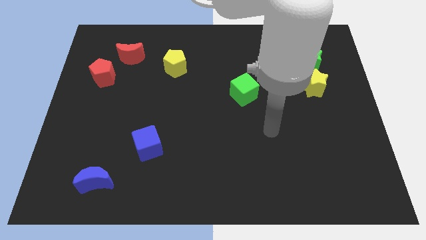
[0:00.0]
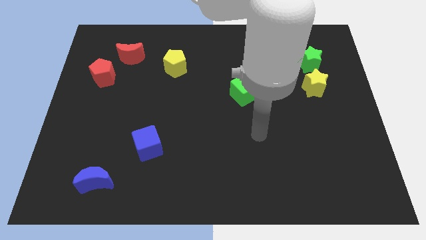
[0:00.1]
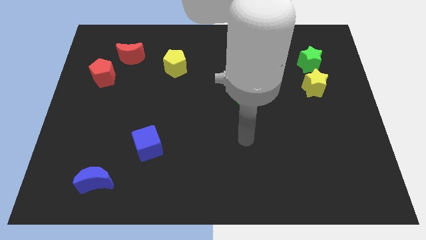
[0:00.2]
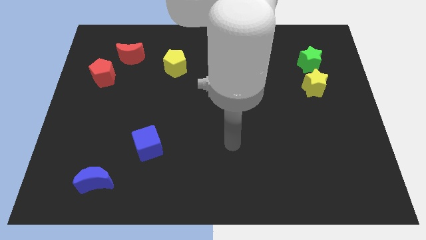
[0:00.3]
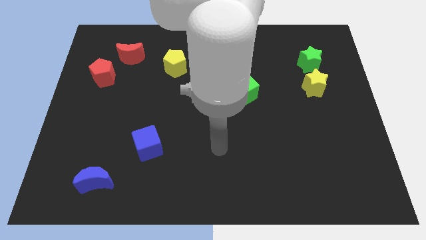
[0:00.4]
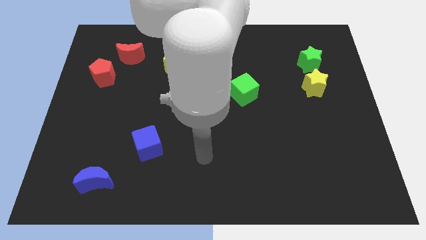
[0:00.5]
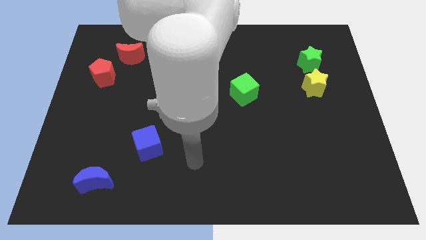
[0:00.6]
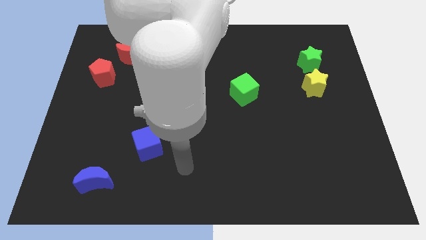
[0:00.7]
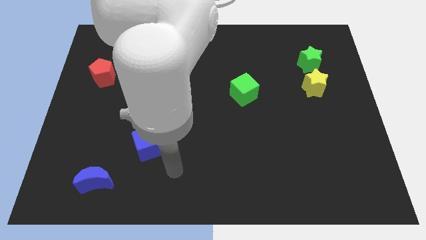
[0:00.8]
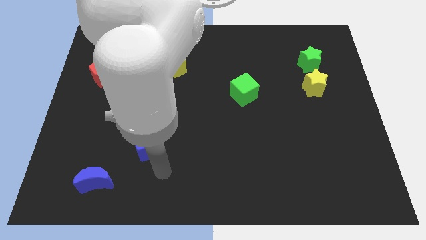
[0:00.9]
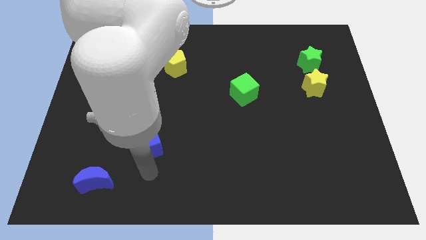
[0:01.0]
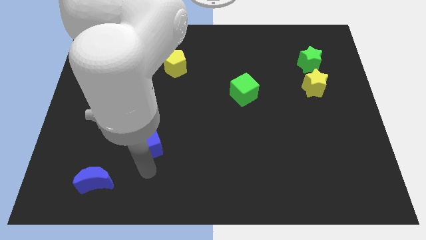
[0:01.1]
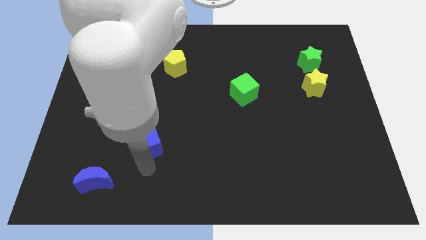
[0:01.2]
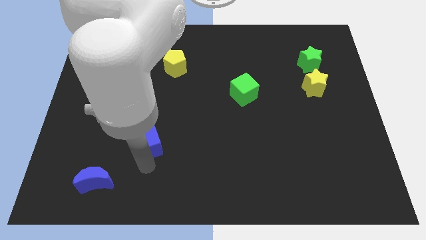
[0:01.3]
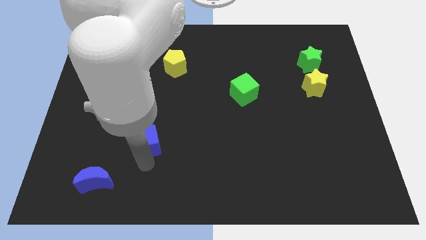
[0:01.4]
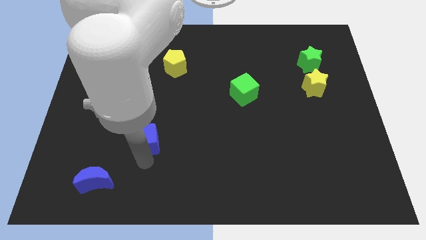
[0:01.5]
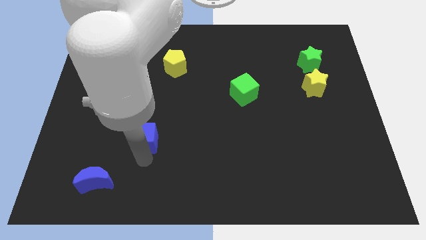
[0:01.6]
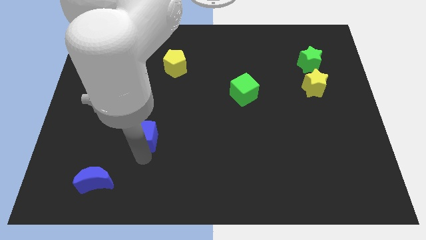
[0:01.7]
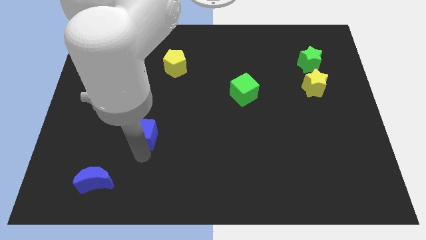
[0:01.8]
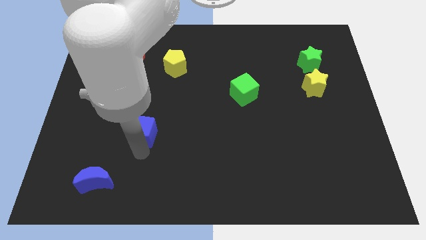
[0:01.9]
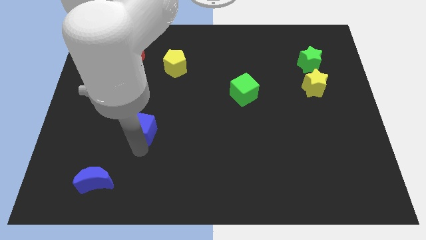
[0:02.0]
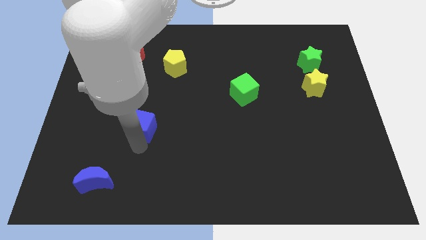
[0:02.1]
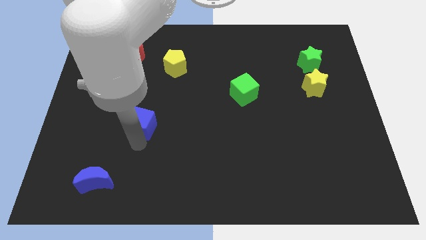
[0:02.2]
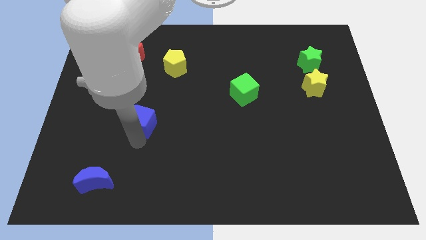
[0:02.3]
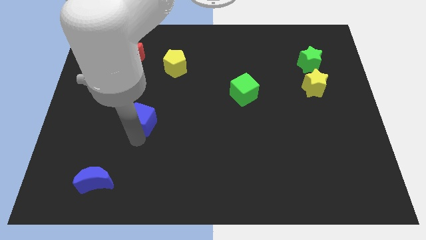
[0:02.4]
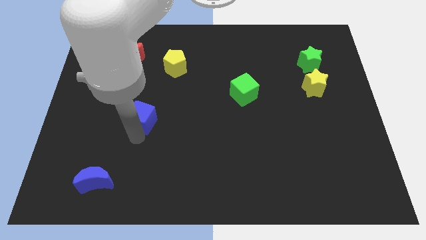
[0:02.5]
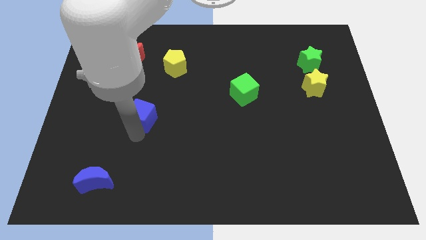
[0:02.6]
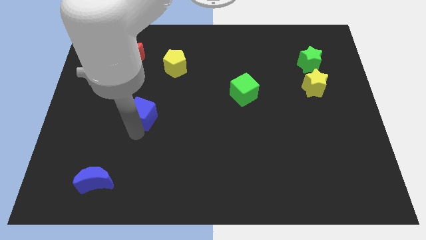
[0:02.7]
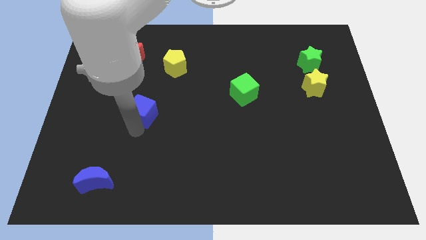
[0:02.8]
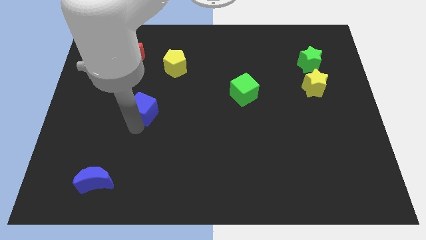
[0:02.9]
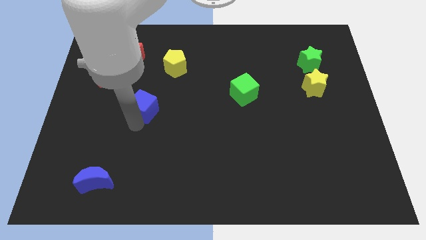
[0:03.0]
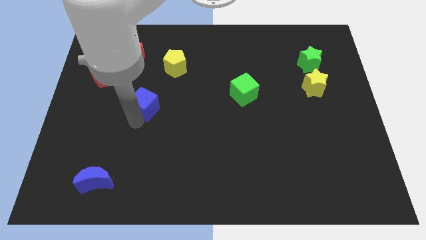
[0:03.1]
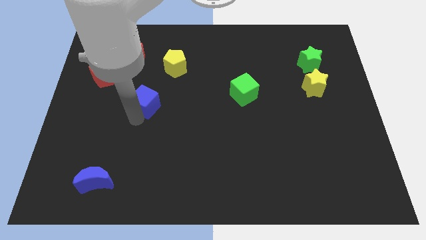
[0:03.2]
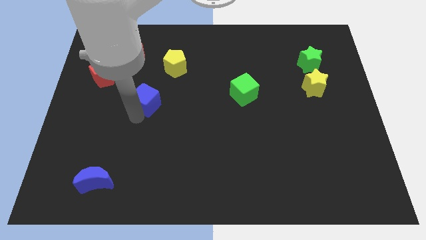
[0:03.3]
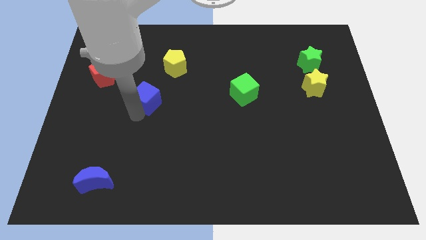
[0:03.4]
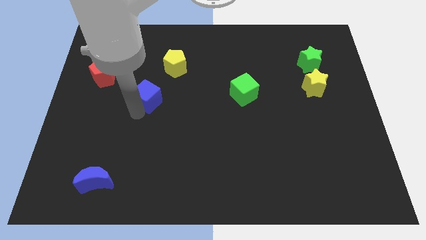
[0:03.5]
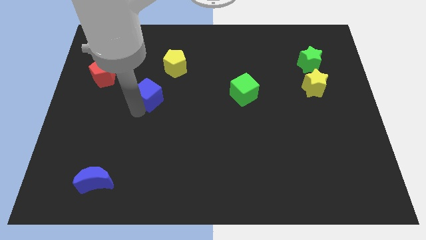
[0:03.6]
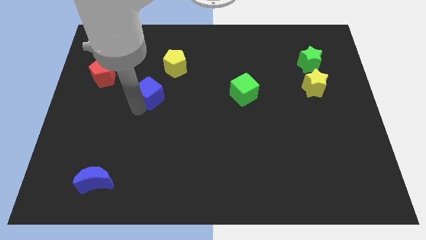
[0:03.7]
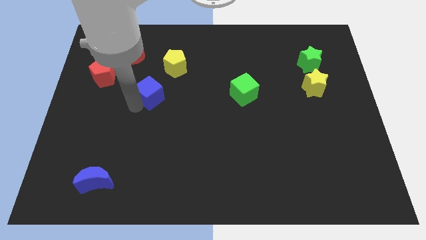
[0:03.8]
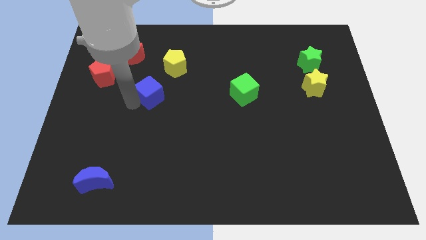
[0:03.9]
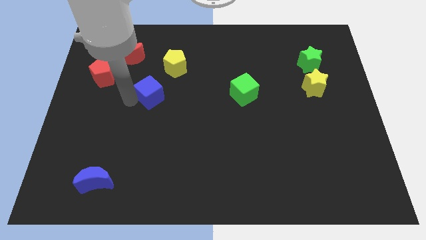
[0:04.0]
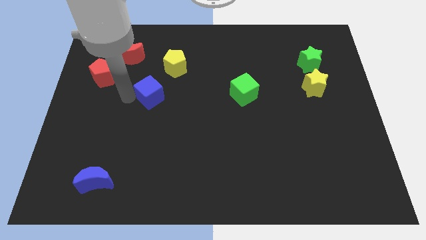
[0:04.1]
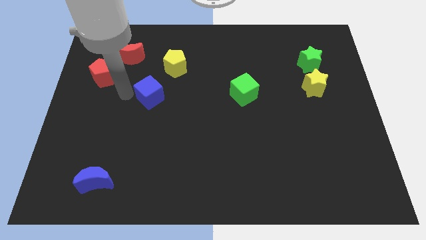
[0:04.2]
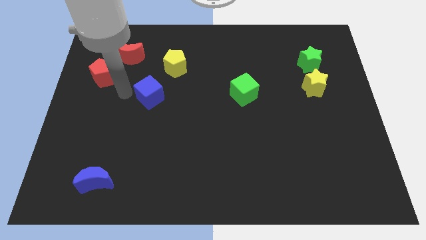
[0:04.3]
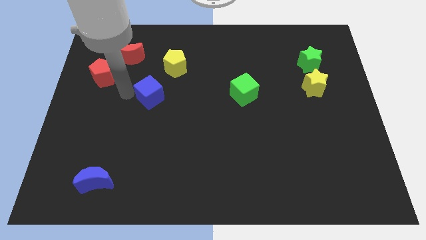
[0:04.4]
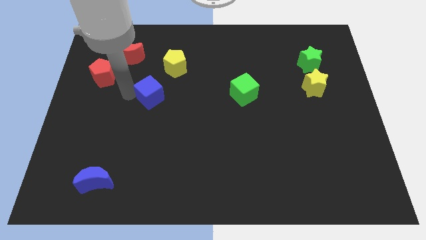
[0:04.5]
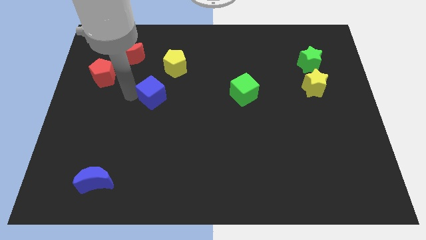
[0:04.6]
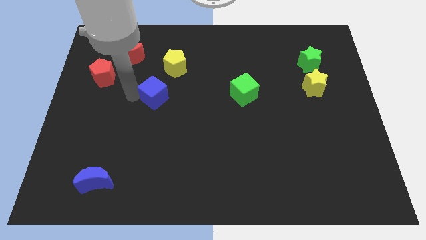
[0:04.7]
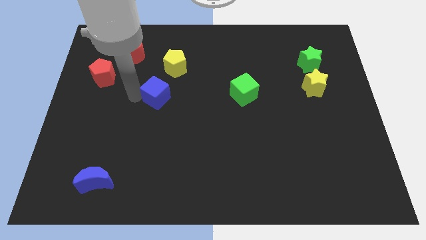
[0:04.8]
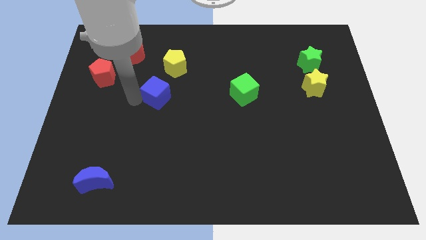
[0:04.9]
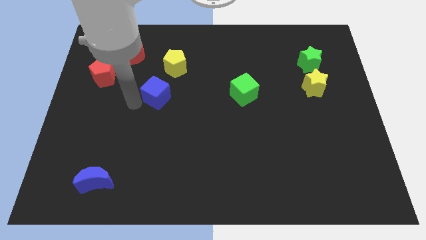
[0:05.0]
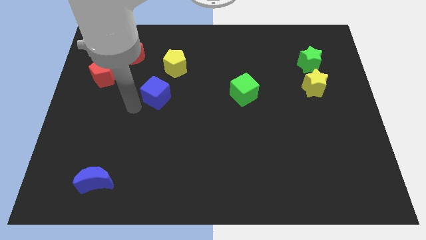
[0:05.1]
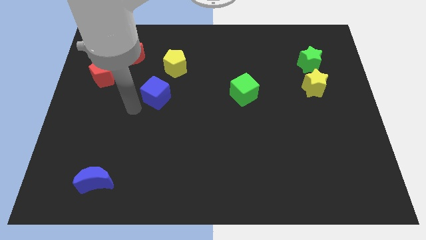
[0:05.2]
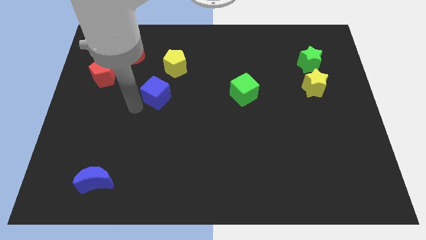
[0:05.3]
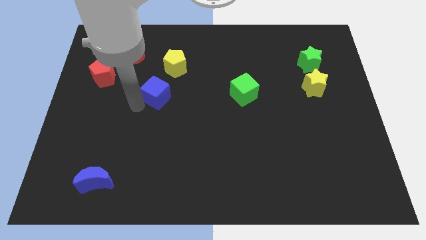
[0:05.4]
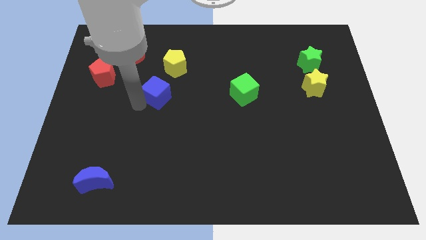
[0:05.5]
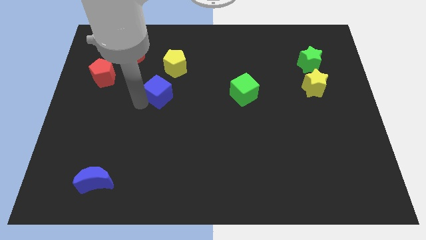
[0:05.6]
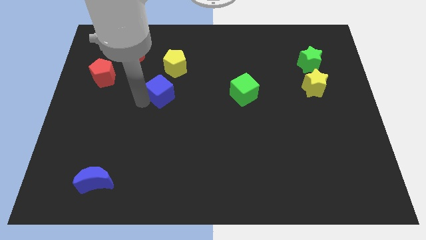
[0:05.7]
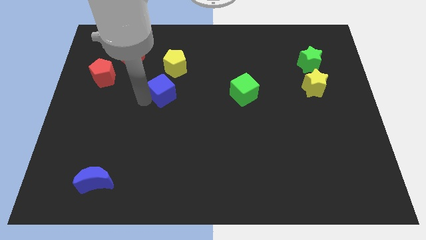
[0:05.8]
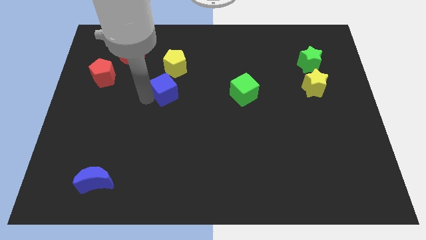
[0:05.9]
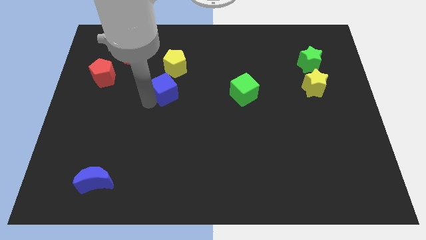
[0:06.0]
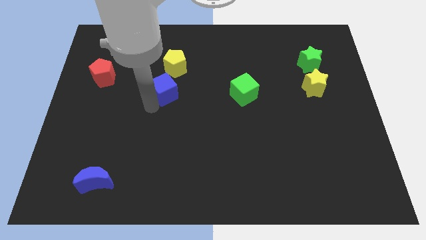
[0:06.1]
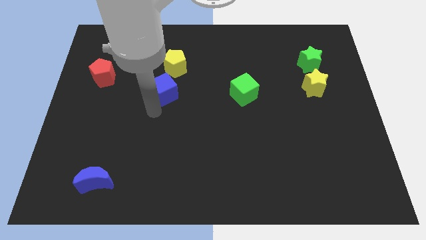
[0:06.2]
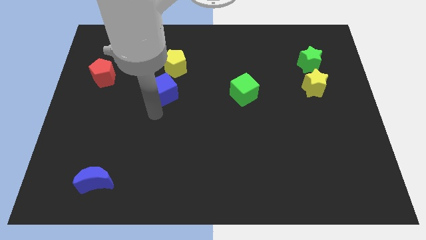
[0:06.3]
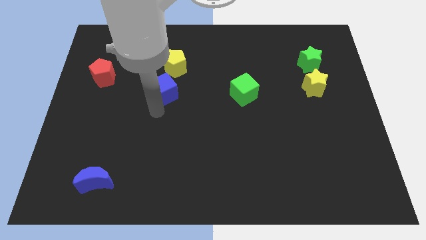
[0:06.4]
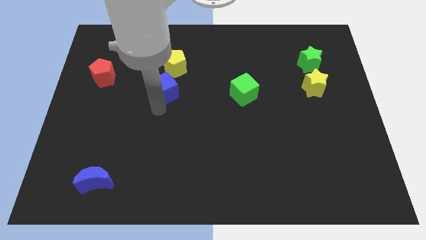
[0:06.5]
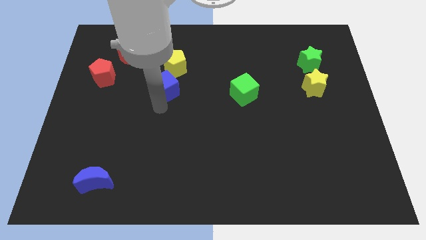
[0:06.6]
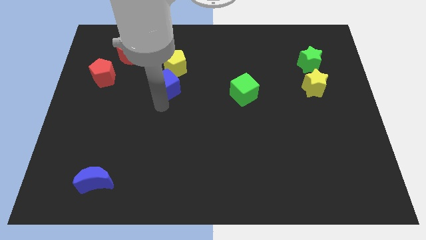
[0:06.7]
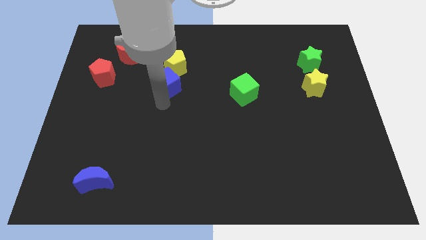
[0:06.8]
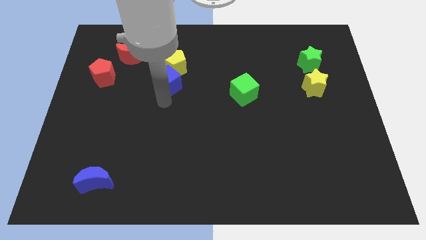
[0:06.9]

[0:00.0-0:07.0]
slide the blue cube next to the yellow pentagon

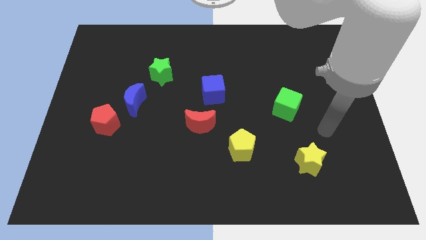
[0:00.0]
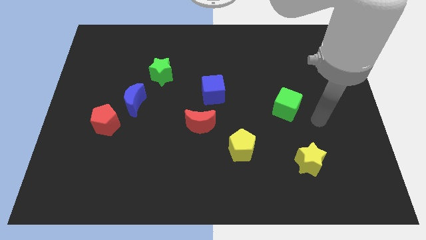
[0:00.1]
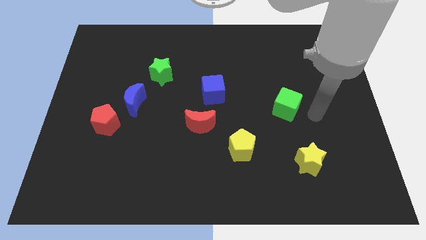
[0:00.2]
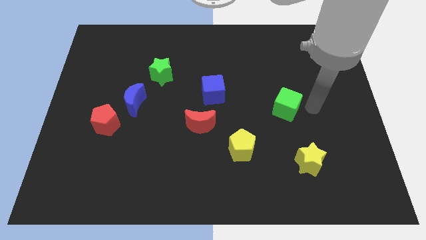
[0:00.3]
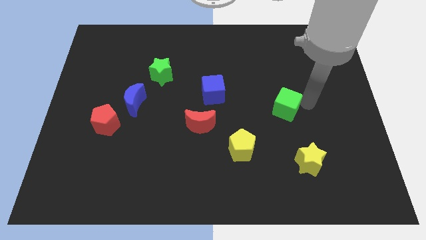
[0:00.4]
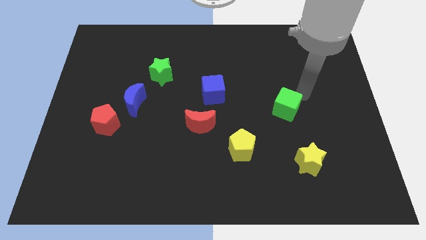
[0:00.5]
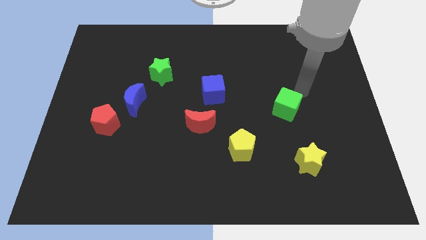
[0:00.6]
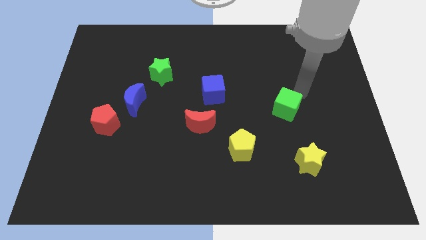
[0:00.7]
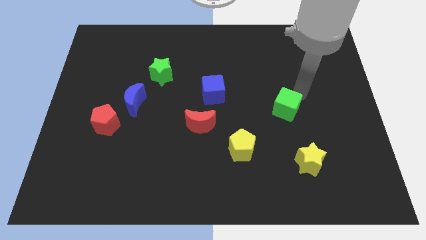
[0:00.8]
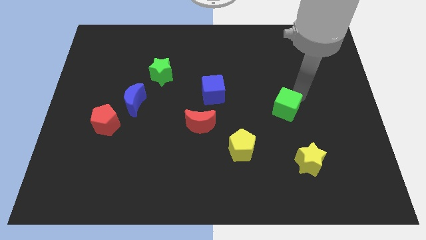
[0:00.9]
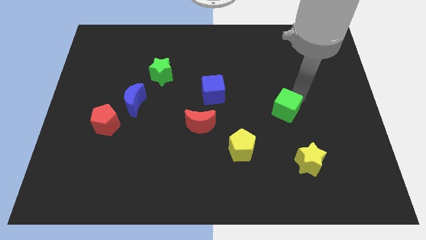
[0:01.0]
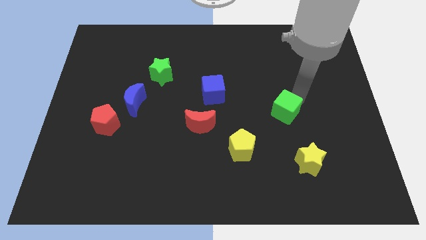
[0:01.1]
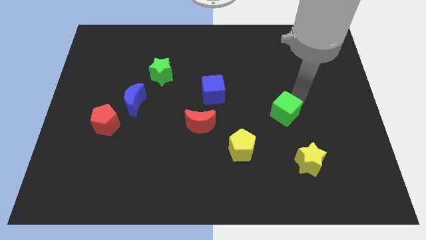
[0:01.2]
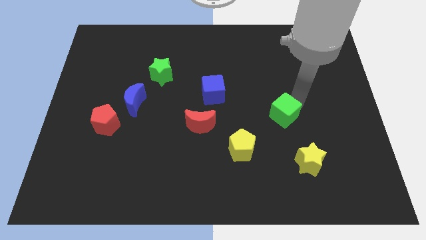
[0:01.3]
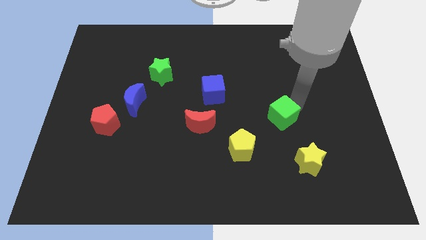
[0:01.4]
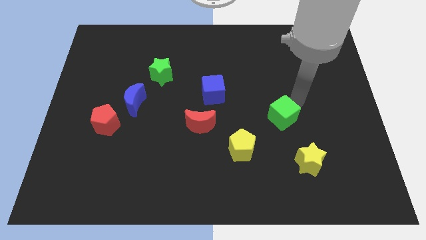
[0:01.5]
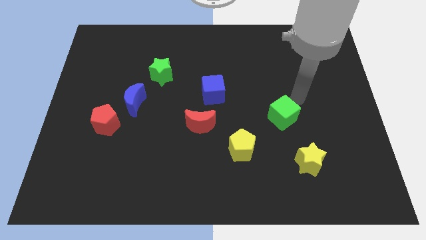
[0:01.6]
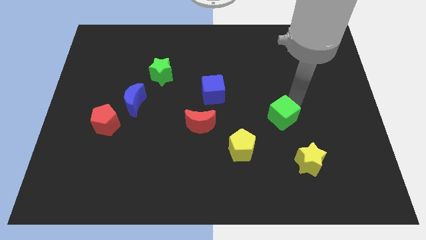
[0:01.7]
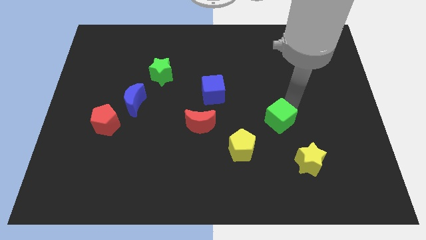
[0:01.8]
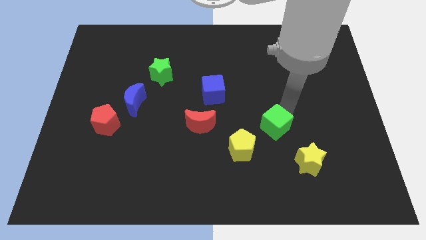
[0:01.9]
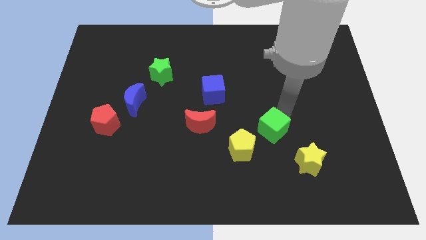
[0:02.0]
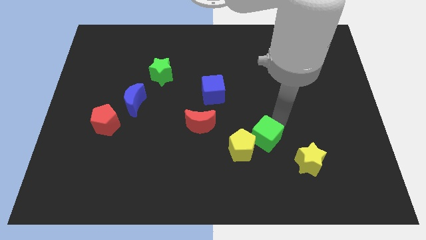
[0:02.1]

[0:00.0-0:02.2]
put the green cube towards the yellow pentagon
